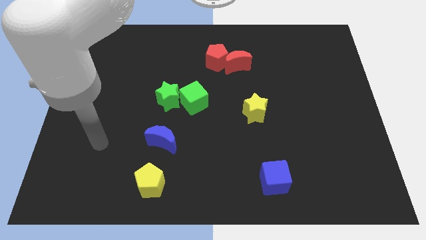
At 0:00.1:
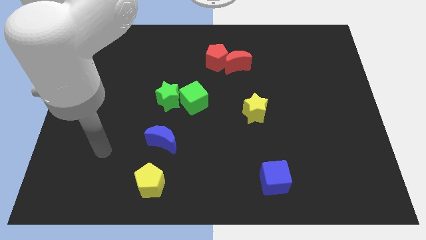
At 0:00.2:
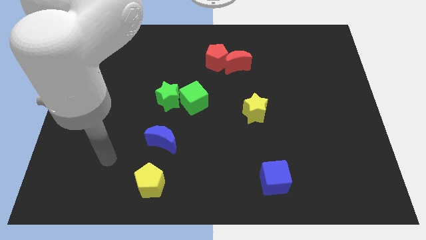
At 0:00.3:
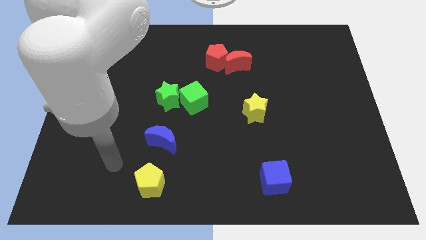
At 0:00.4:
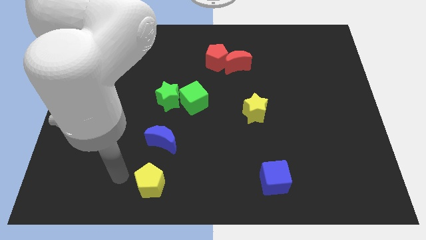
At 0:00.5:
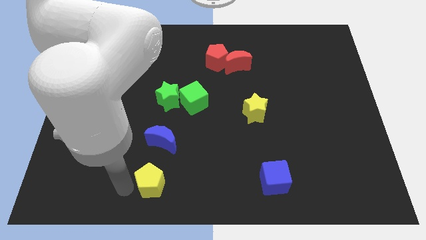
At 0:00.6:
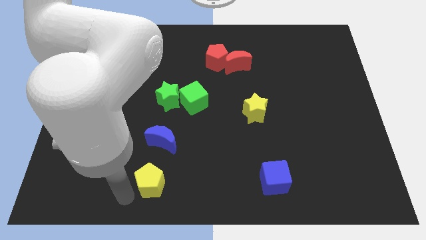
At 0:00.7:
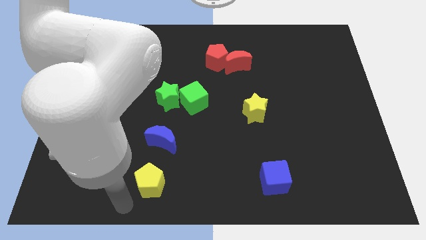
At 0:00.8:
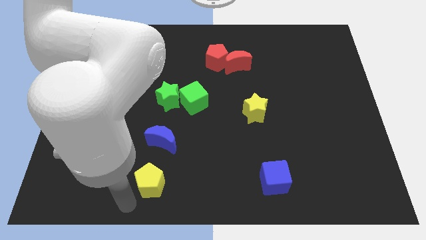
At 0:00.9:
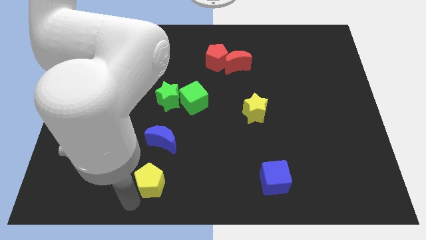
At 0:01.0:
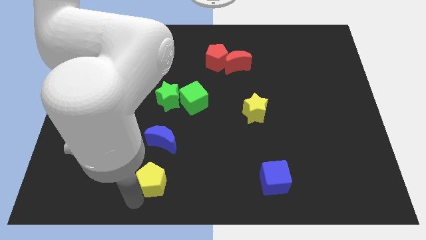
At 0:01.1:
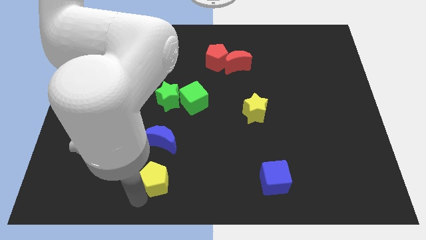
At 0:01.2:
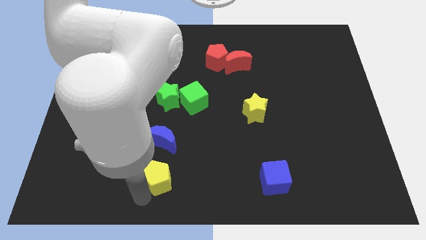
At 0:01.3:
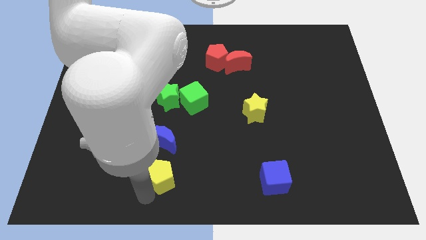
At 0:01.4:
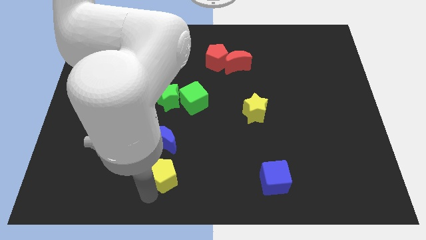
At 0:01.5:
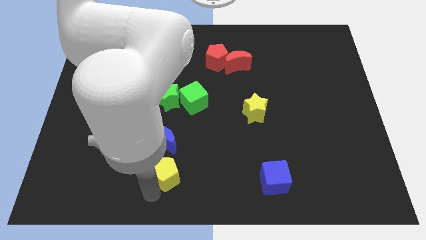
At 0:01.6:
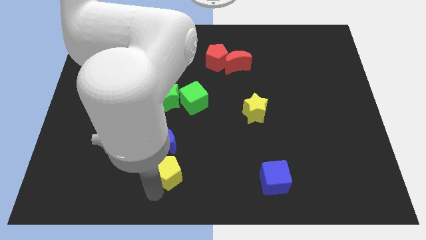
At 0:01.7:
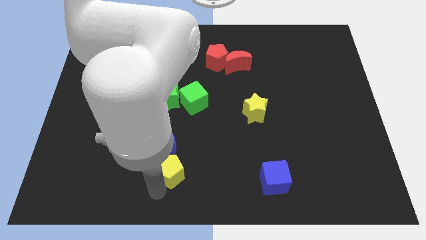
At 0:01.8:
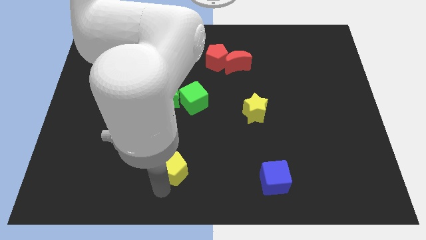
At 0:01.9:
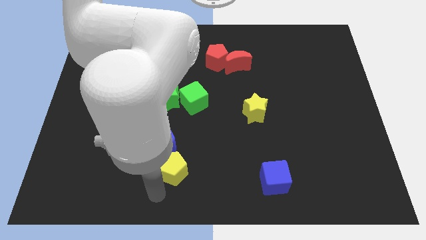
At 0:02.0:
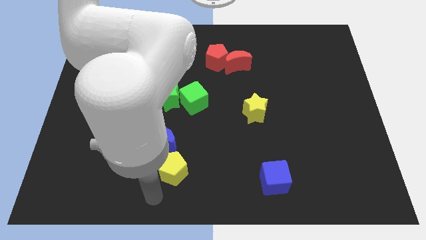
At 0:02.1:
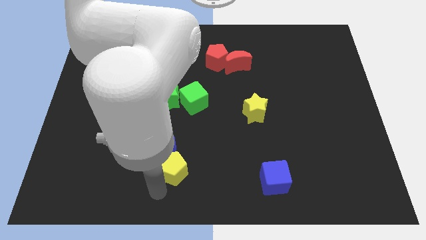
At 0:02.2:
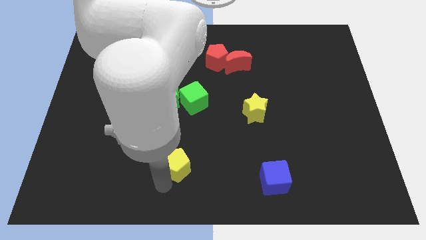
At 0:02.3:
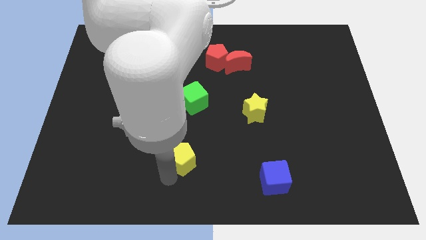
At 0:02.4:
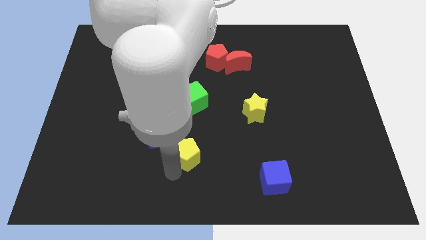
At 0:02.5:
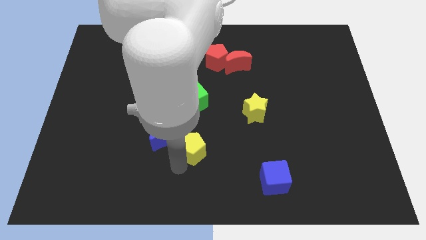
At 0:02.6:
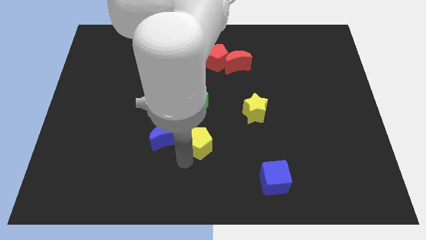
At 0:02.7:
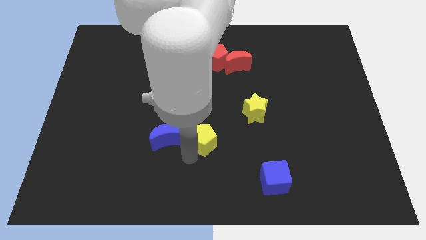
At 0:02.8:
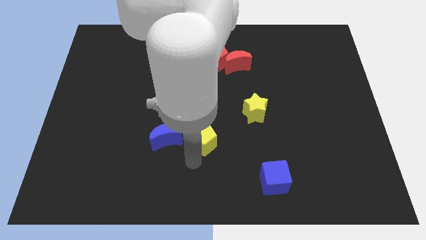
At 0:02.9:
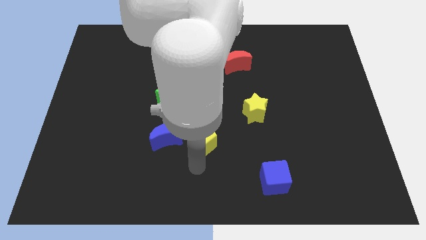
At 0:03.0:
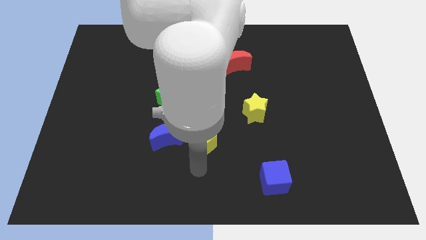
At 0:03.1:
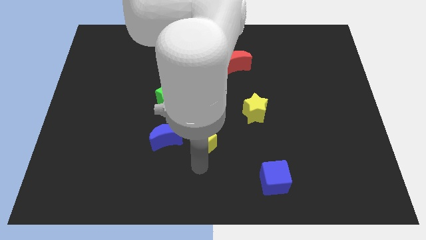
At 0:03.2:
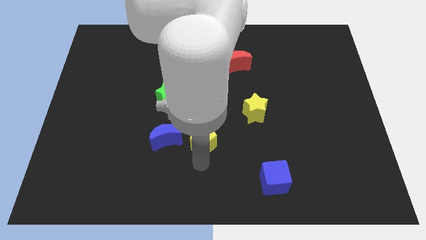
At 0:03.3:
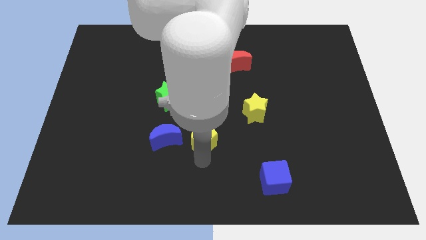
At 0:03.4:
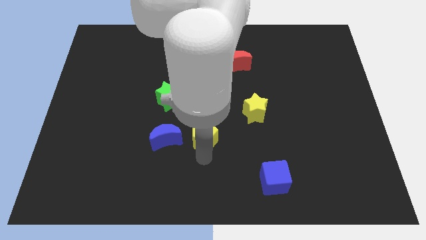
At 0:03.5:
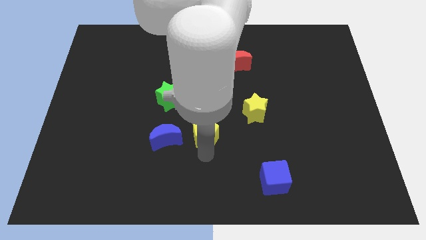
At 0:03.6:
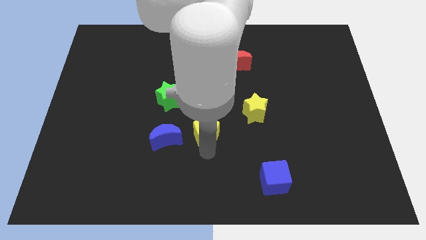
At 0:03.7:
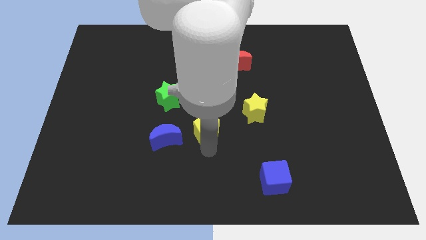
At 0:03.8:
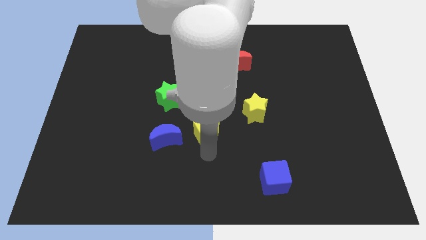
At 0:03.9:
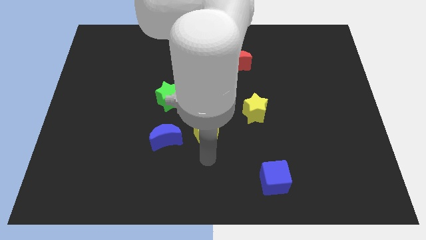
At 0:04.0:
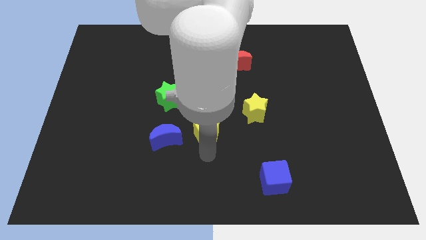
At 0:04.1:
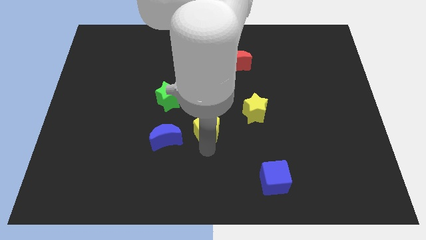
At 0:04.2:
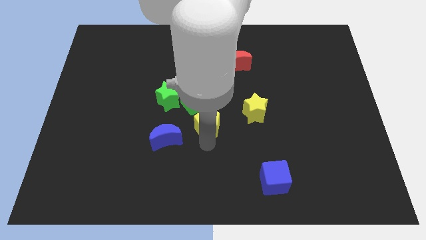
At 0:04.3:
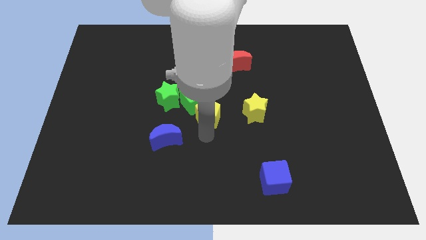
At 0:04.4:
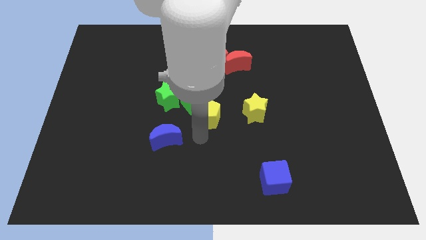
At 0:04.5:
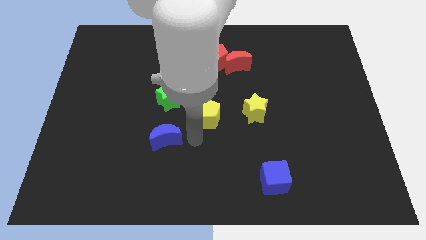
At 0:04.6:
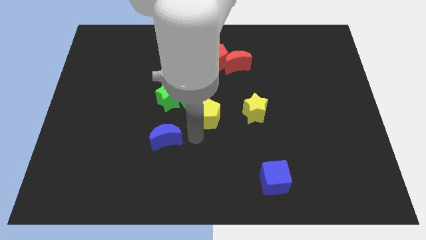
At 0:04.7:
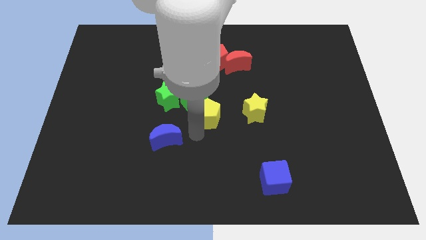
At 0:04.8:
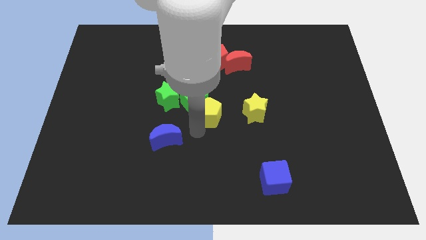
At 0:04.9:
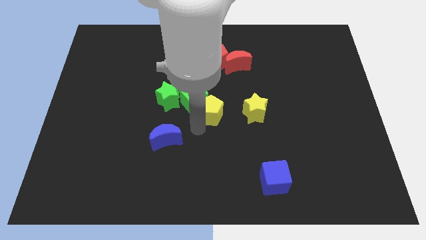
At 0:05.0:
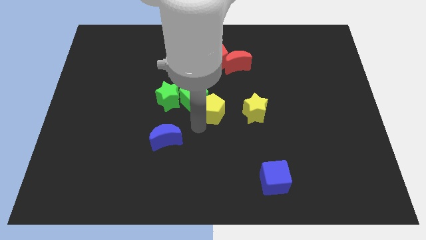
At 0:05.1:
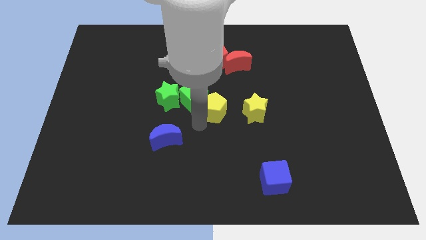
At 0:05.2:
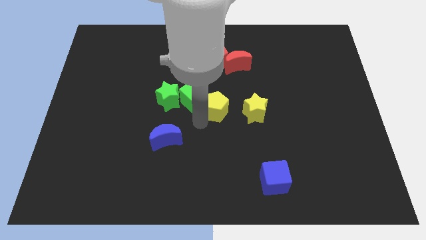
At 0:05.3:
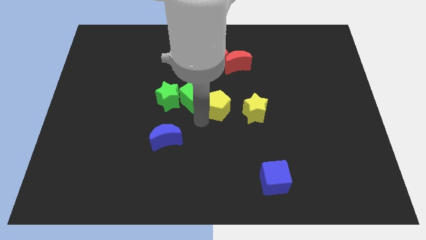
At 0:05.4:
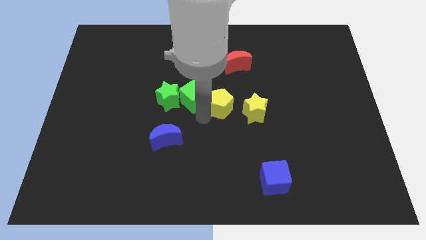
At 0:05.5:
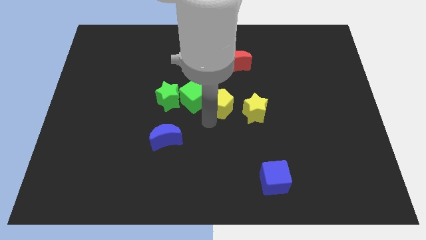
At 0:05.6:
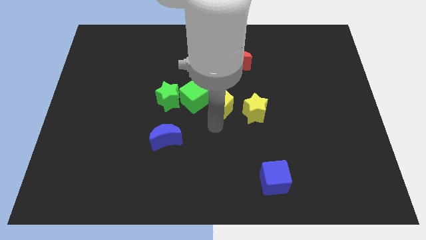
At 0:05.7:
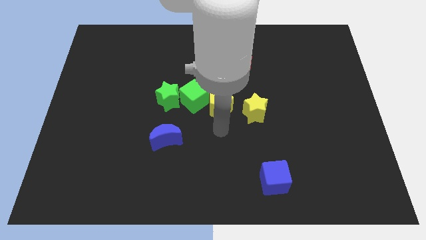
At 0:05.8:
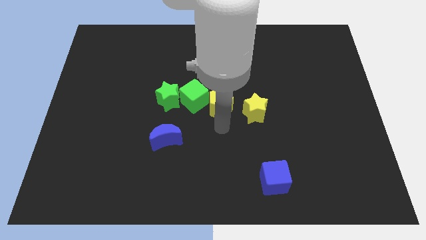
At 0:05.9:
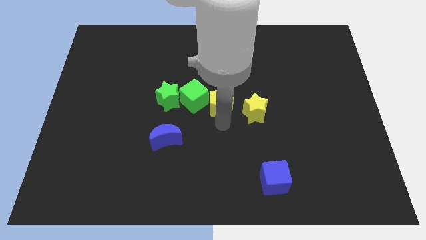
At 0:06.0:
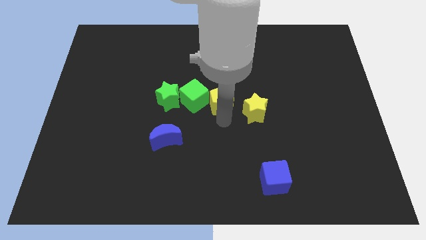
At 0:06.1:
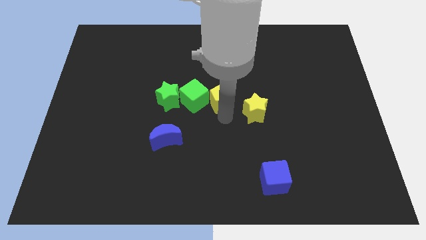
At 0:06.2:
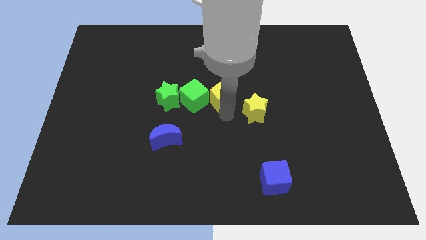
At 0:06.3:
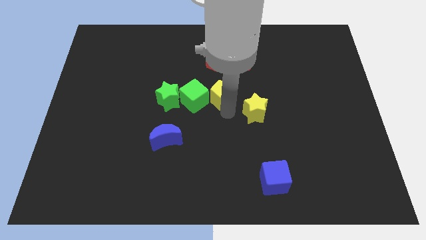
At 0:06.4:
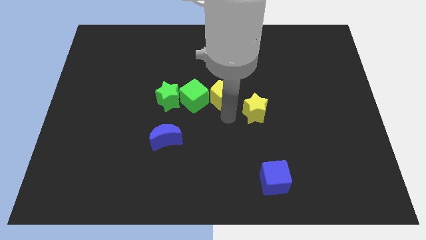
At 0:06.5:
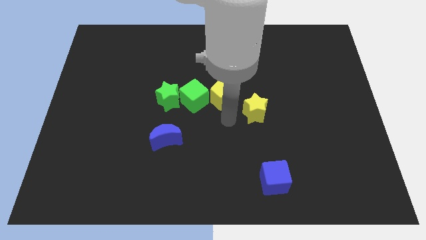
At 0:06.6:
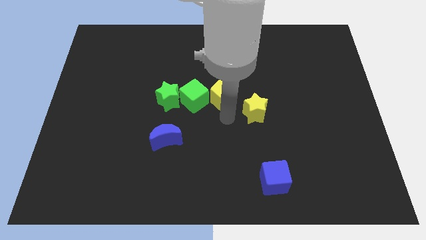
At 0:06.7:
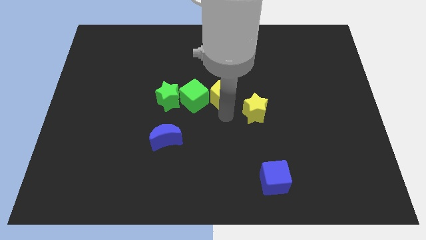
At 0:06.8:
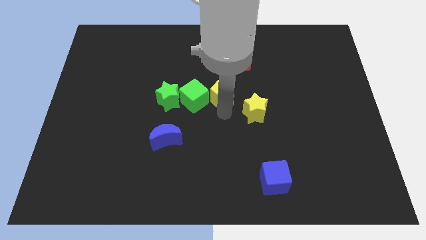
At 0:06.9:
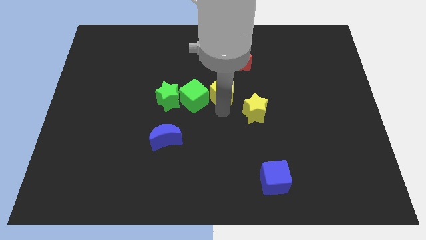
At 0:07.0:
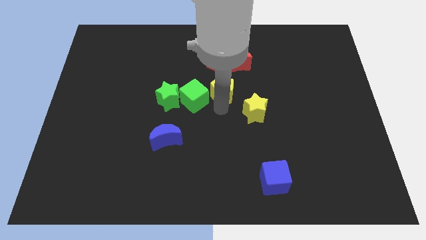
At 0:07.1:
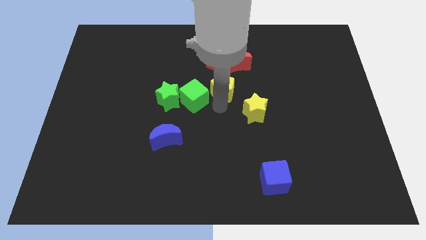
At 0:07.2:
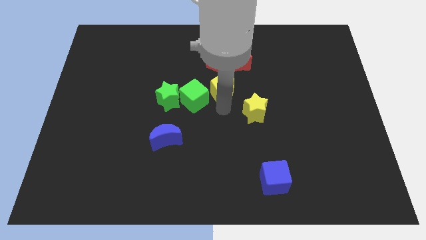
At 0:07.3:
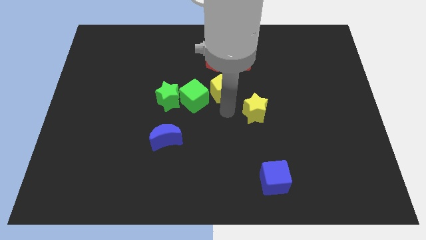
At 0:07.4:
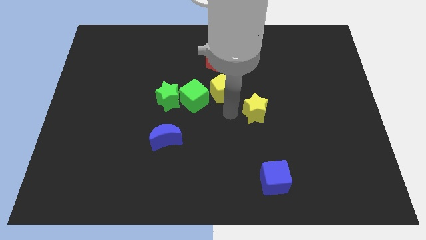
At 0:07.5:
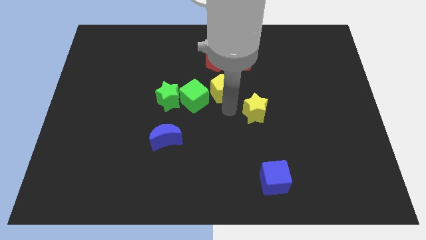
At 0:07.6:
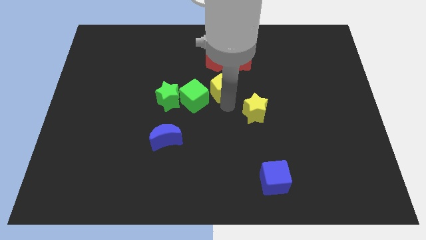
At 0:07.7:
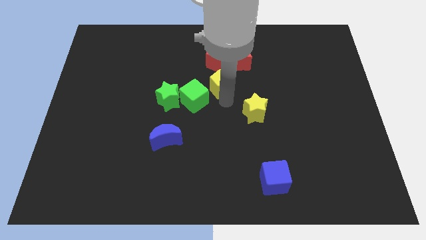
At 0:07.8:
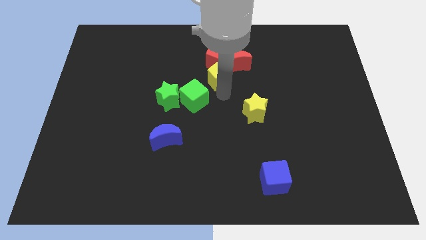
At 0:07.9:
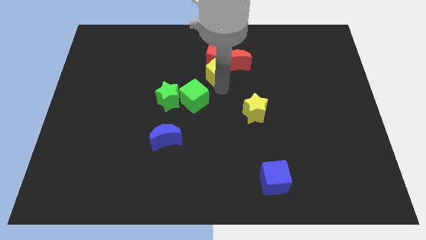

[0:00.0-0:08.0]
move the yellow pentagon next to the red pentagon
